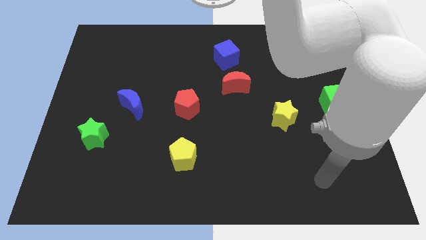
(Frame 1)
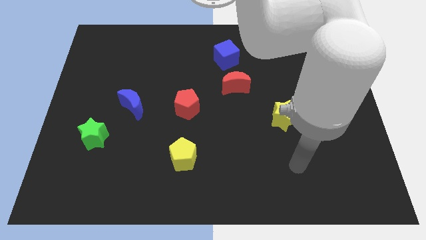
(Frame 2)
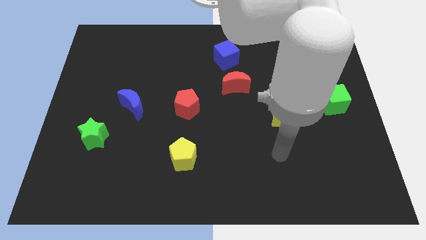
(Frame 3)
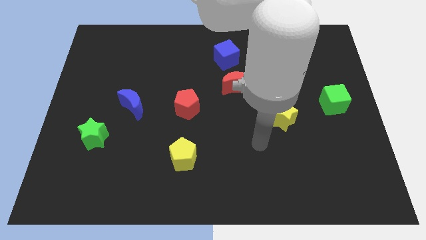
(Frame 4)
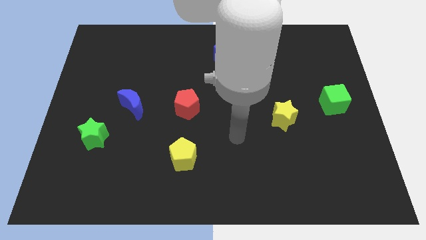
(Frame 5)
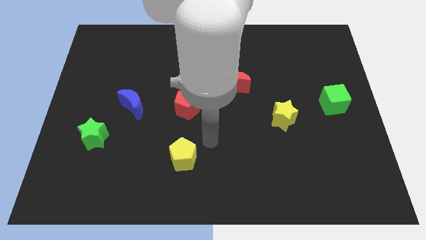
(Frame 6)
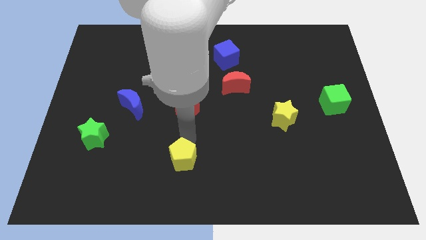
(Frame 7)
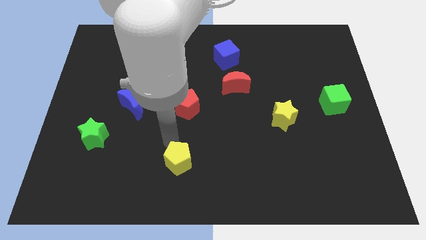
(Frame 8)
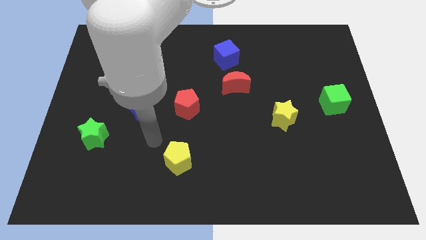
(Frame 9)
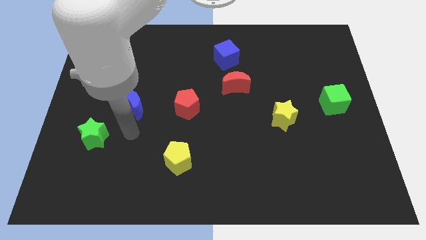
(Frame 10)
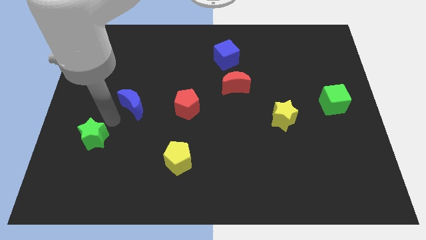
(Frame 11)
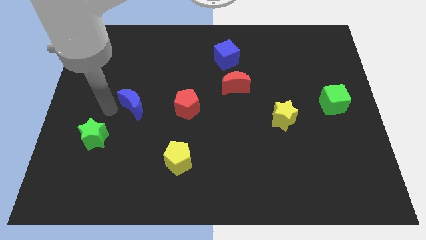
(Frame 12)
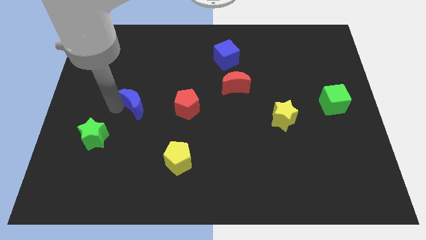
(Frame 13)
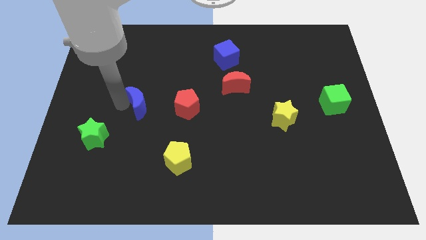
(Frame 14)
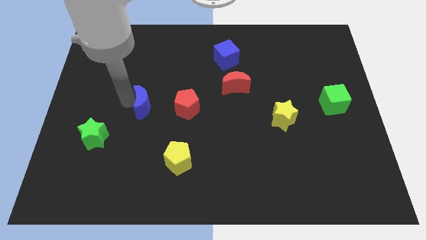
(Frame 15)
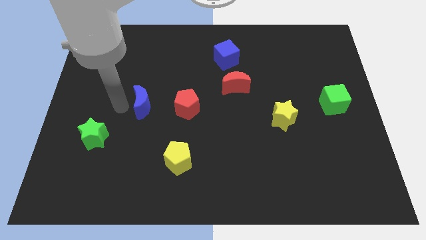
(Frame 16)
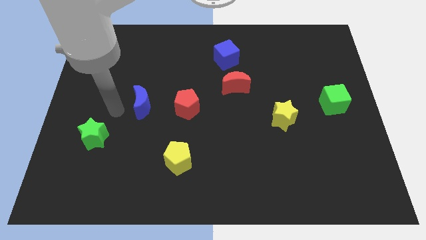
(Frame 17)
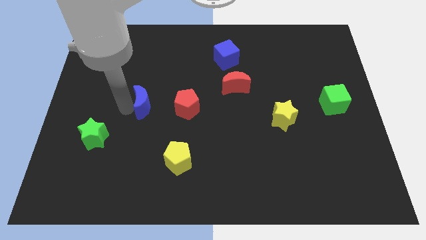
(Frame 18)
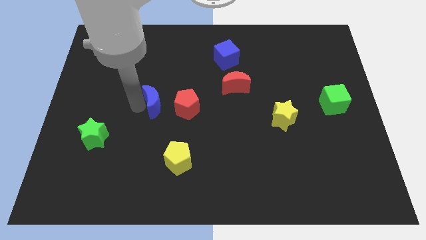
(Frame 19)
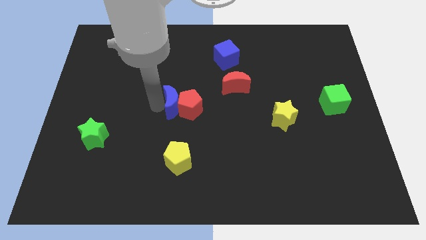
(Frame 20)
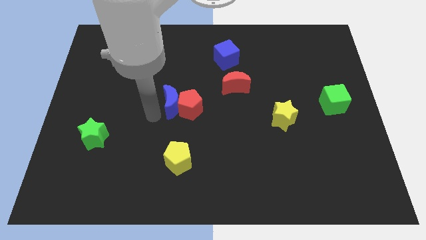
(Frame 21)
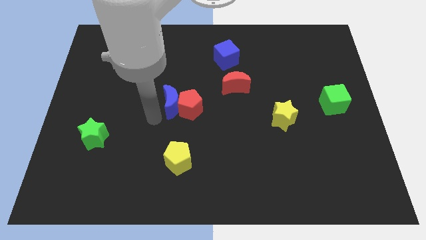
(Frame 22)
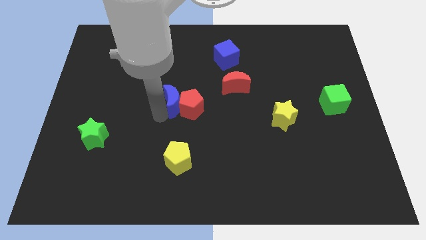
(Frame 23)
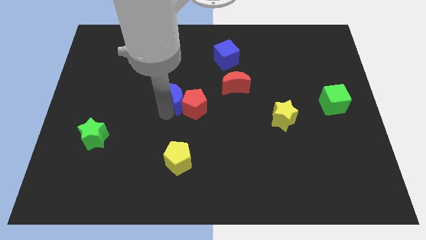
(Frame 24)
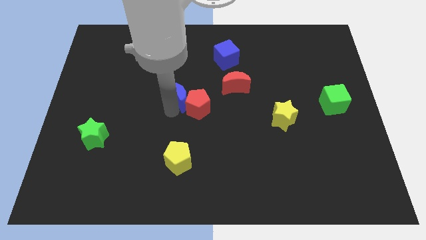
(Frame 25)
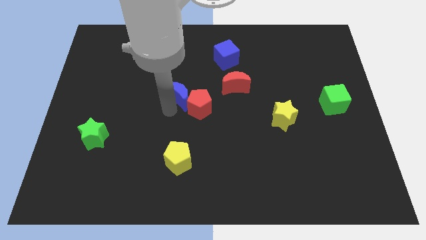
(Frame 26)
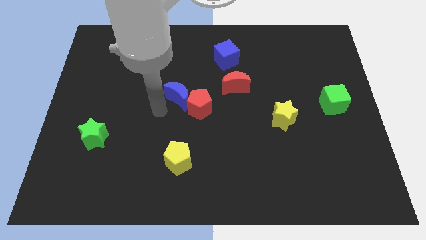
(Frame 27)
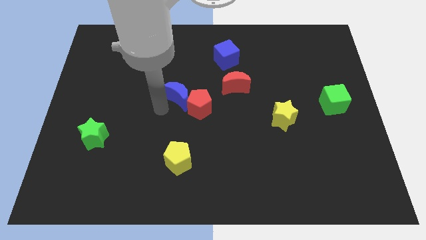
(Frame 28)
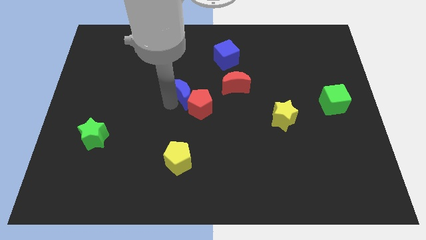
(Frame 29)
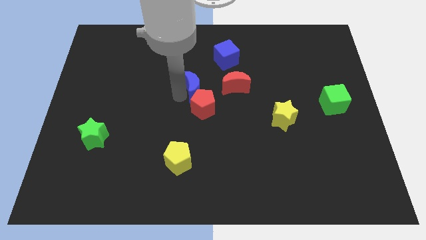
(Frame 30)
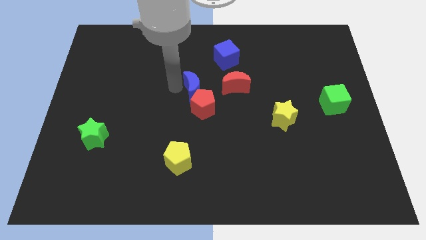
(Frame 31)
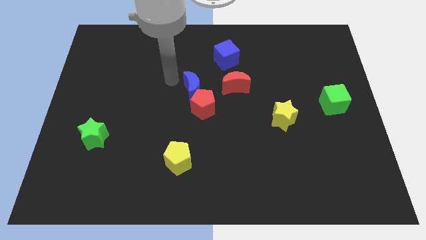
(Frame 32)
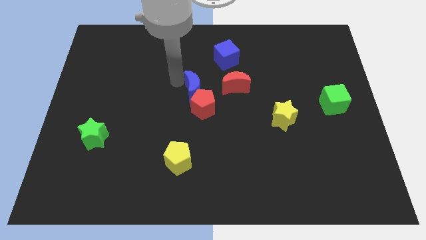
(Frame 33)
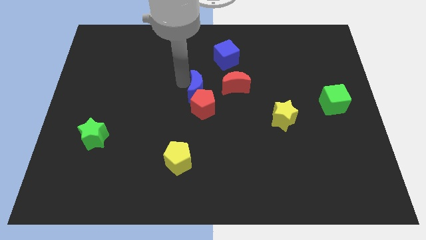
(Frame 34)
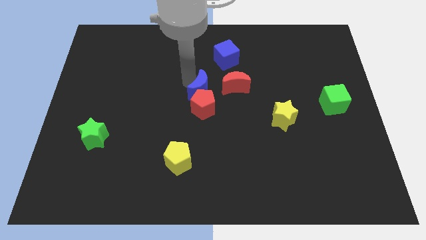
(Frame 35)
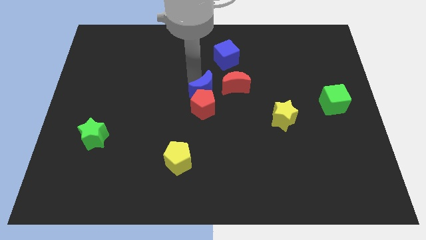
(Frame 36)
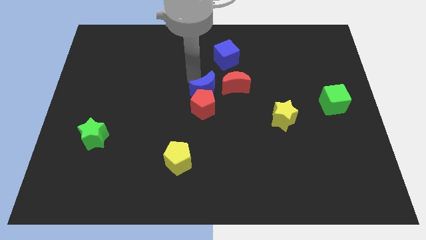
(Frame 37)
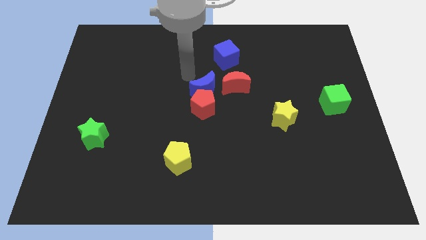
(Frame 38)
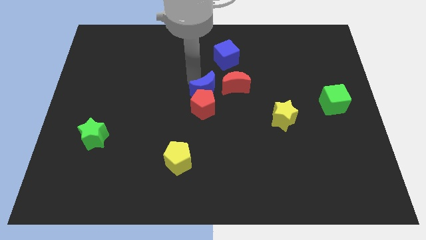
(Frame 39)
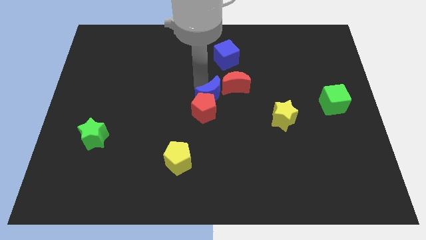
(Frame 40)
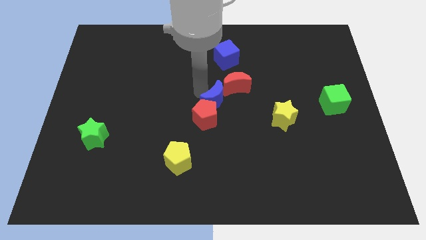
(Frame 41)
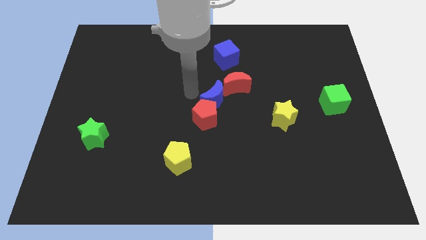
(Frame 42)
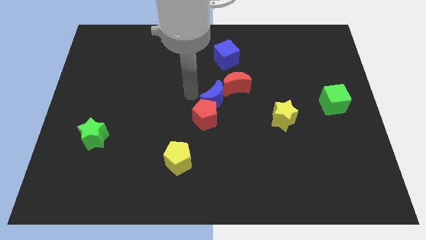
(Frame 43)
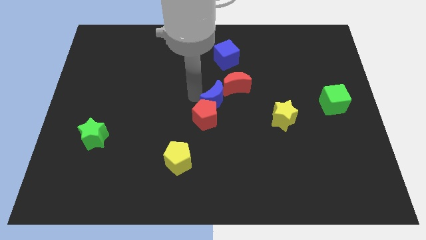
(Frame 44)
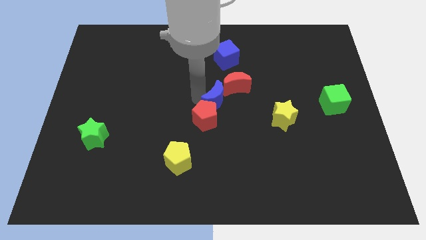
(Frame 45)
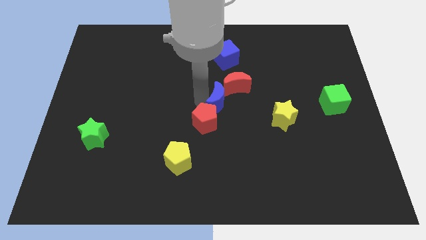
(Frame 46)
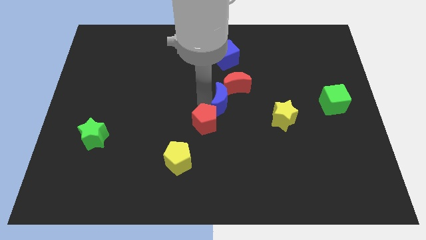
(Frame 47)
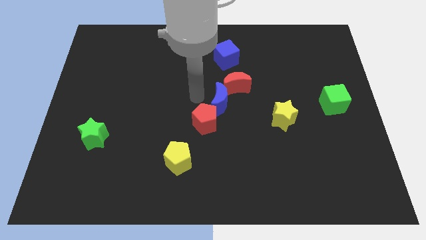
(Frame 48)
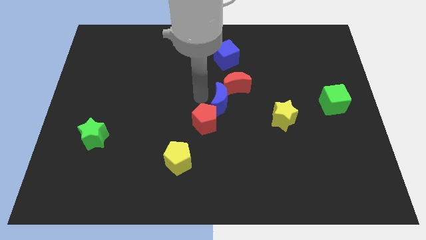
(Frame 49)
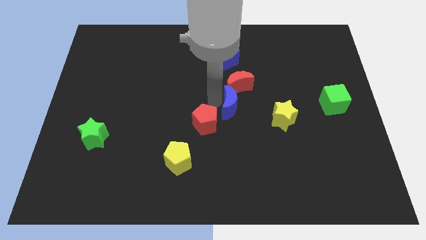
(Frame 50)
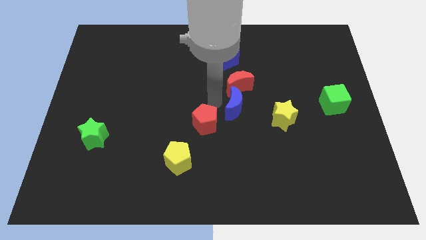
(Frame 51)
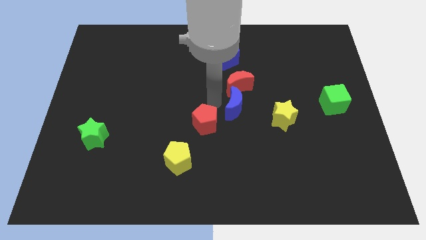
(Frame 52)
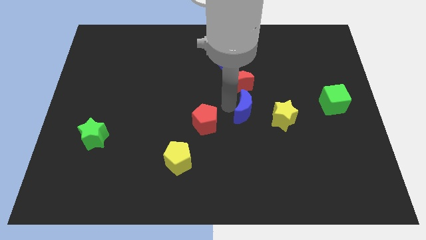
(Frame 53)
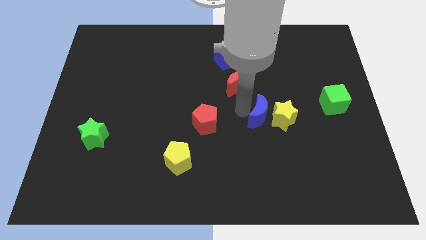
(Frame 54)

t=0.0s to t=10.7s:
put the blue moon close to the yellow star

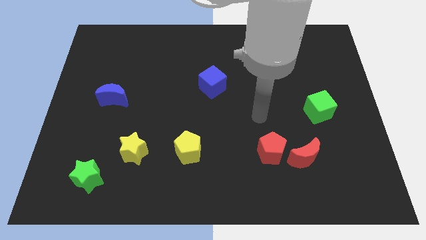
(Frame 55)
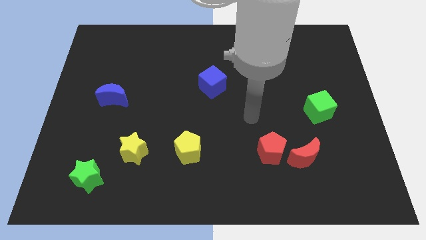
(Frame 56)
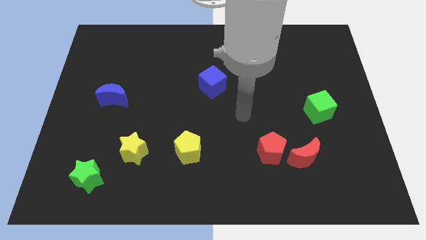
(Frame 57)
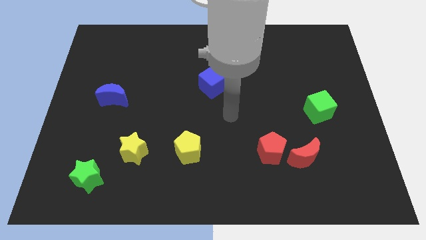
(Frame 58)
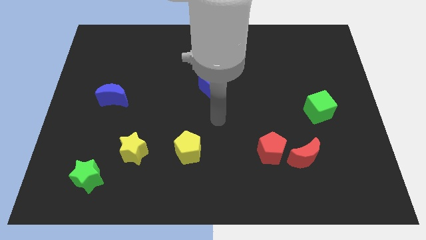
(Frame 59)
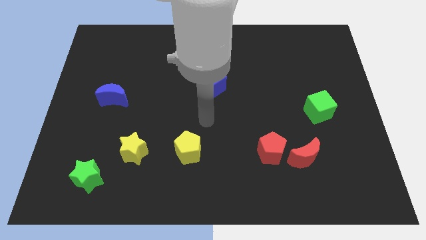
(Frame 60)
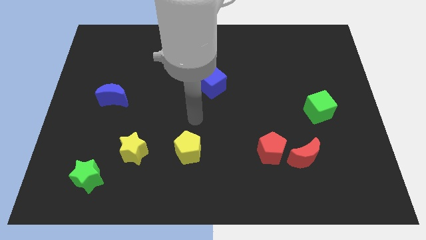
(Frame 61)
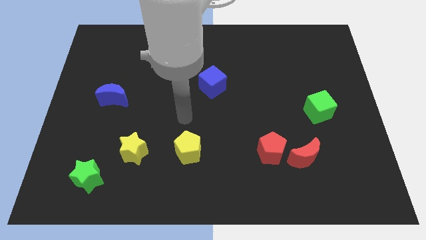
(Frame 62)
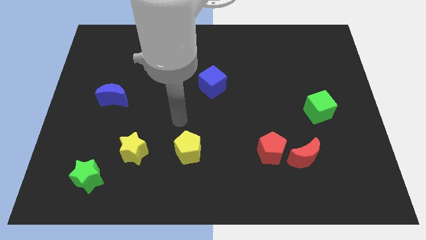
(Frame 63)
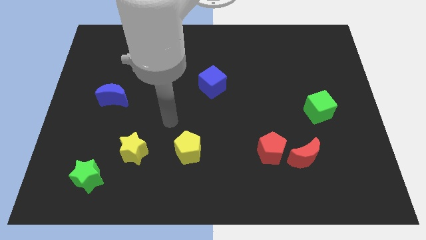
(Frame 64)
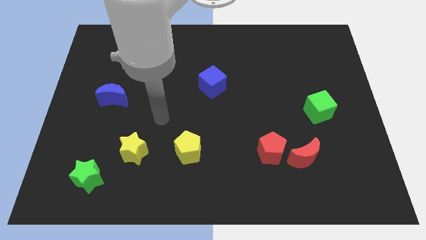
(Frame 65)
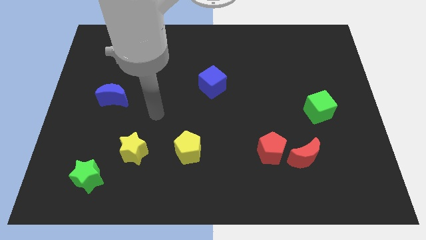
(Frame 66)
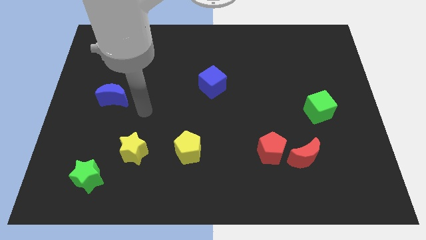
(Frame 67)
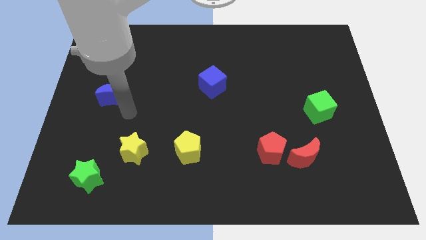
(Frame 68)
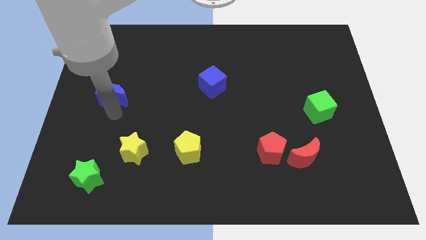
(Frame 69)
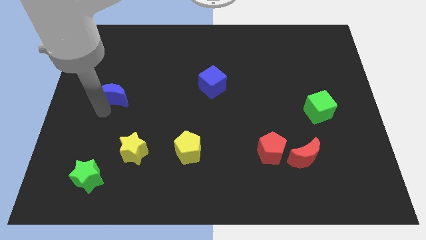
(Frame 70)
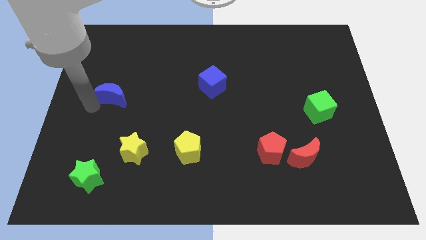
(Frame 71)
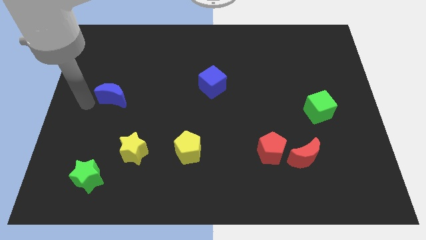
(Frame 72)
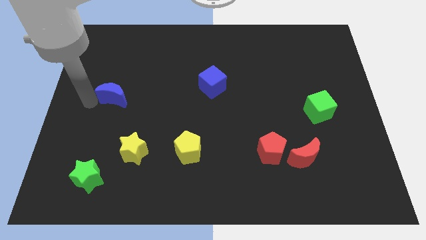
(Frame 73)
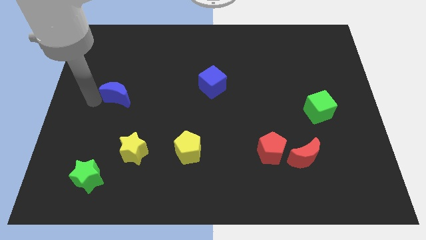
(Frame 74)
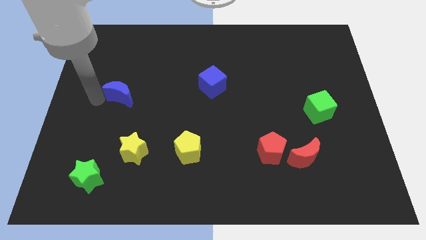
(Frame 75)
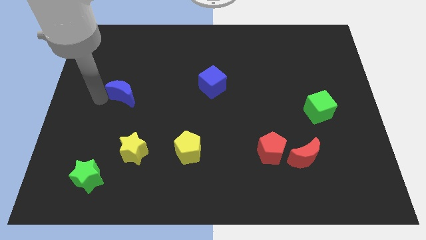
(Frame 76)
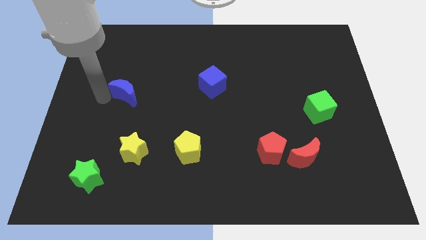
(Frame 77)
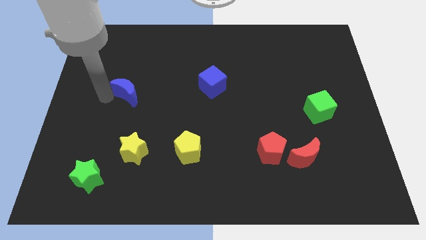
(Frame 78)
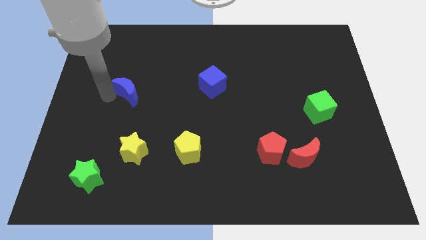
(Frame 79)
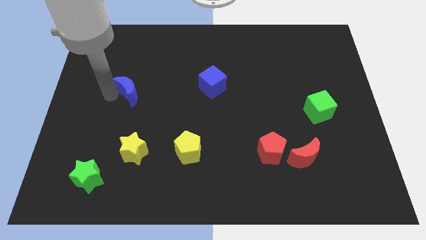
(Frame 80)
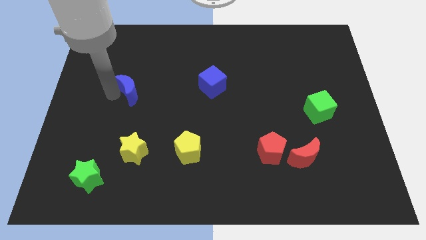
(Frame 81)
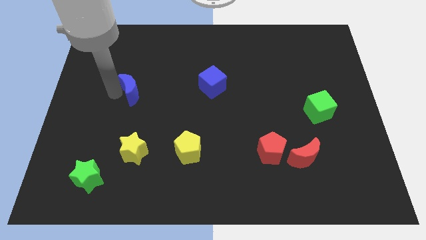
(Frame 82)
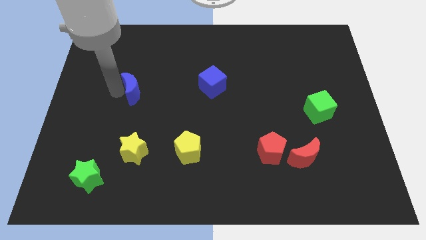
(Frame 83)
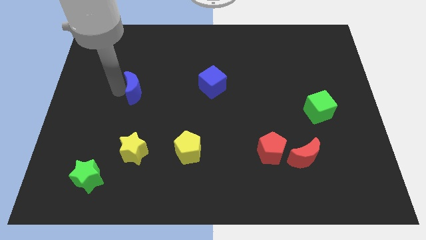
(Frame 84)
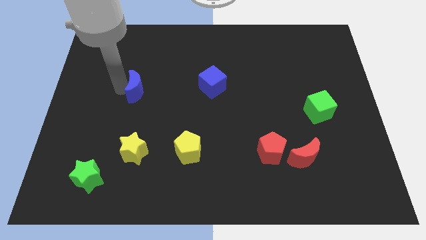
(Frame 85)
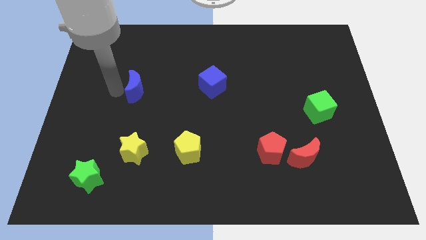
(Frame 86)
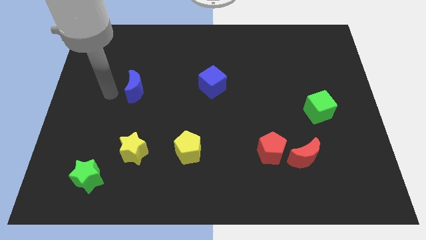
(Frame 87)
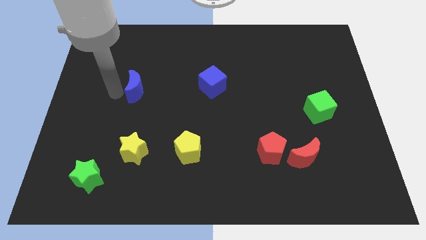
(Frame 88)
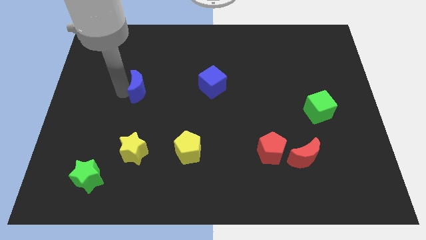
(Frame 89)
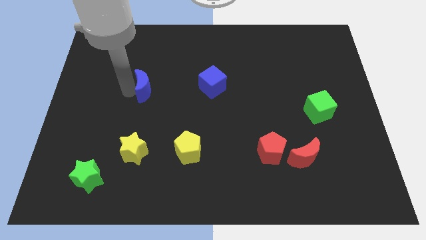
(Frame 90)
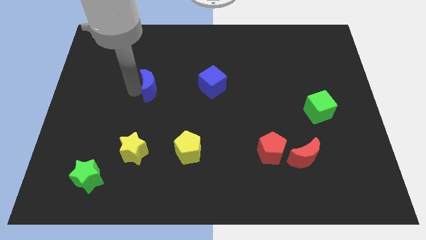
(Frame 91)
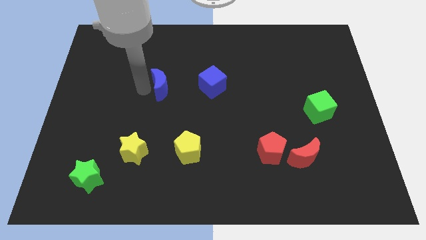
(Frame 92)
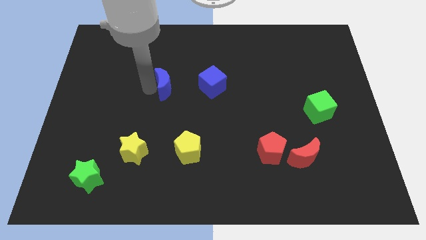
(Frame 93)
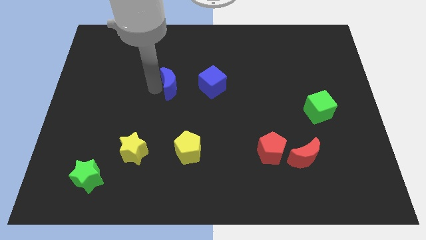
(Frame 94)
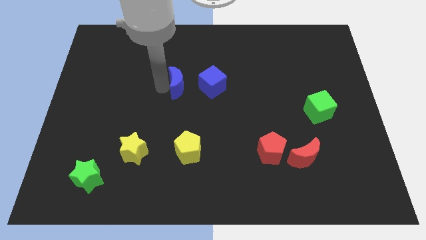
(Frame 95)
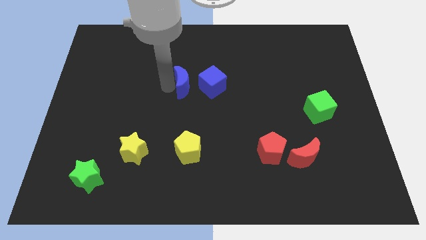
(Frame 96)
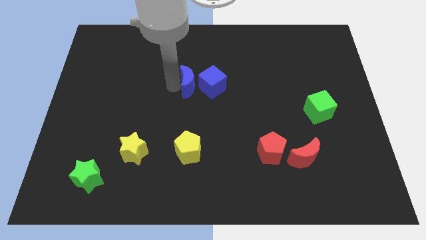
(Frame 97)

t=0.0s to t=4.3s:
move the blue moon towards the blue cube
